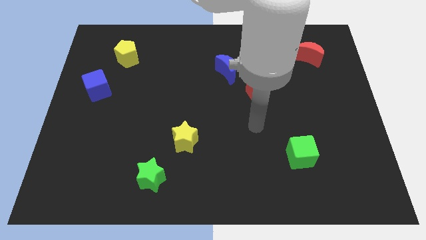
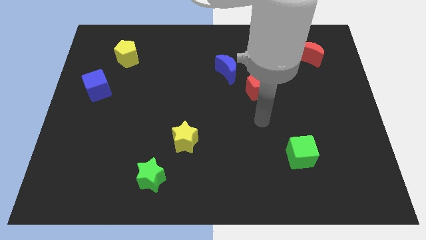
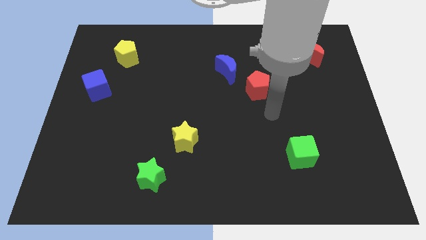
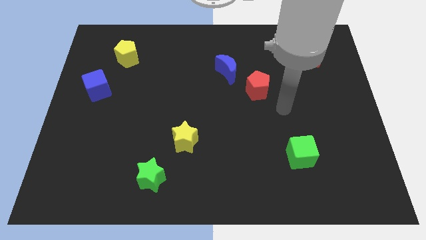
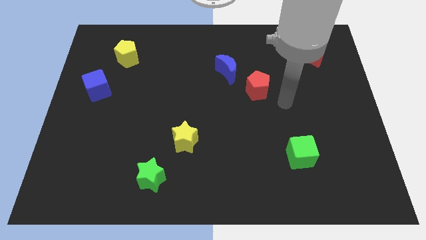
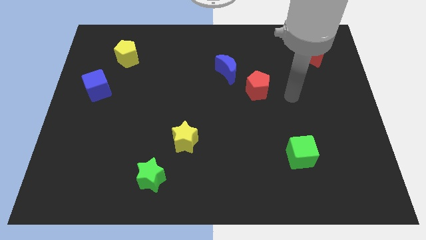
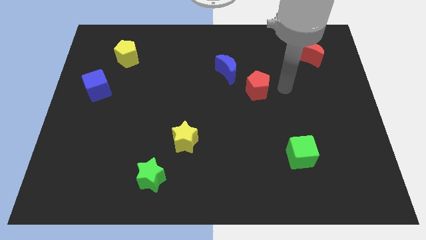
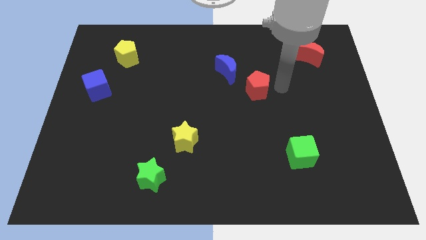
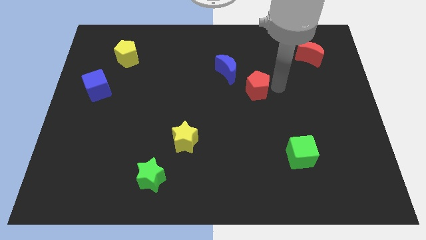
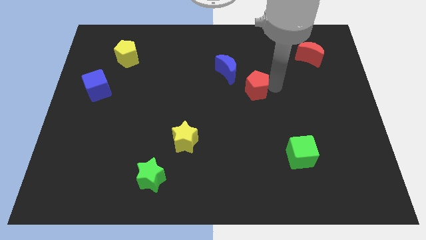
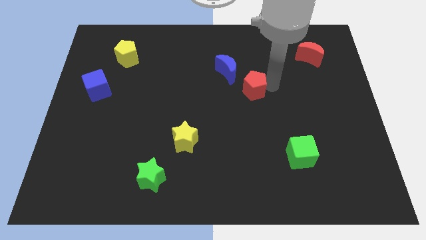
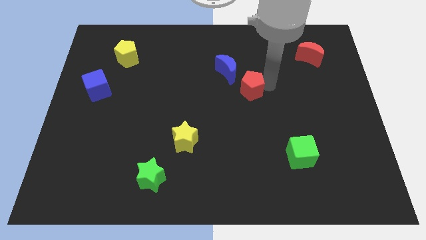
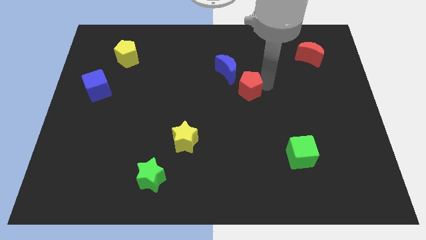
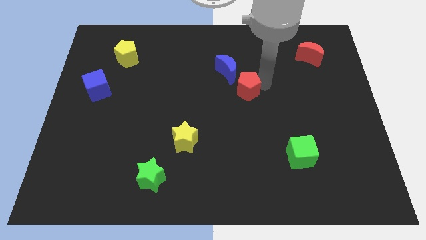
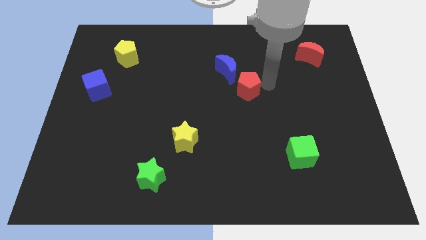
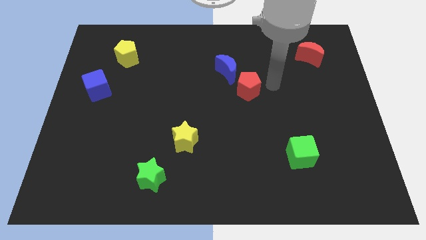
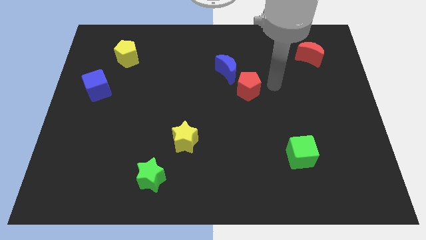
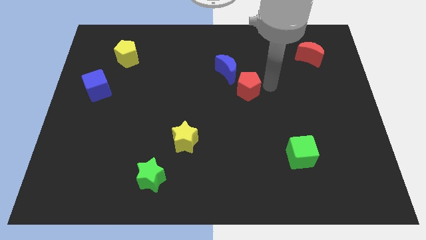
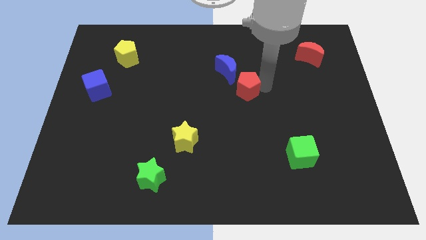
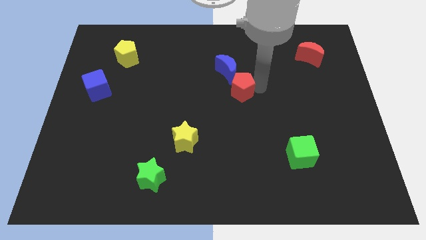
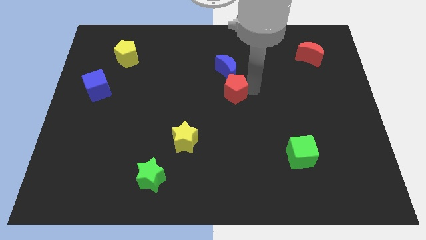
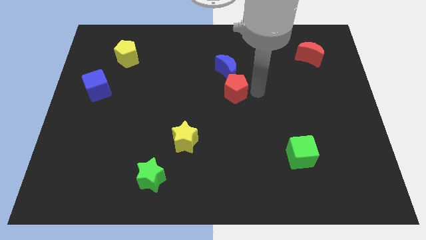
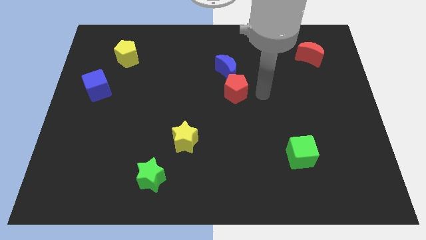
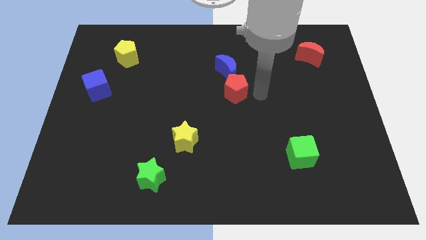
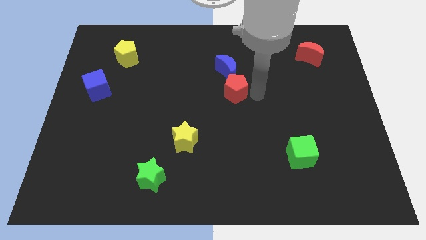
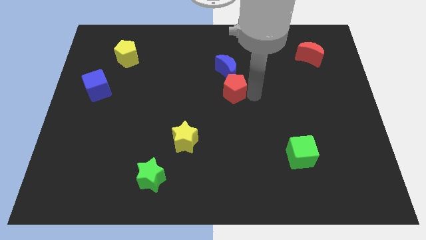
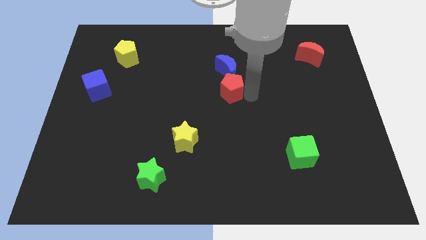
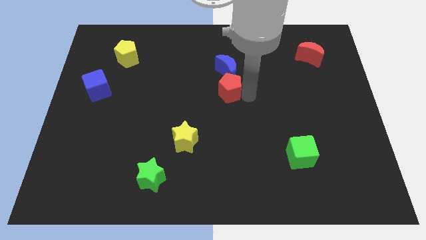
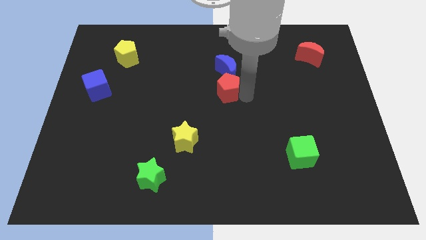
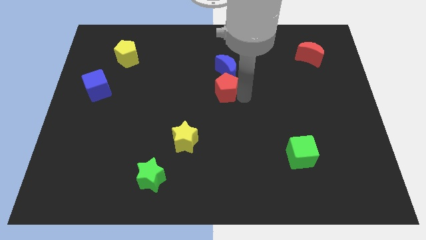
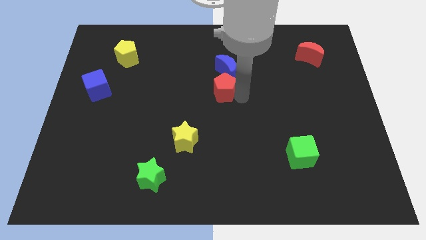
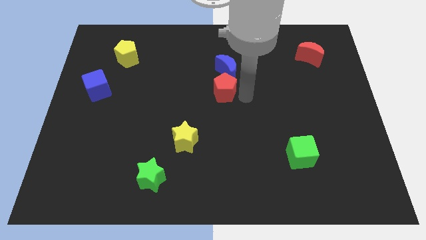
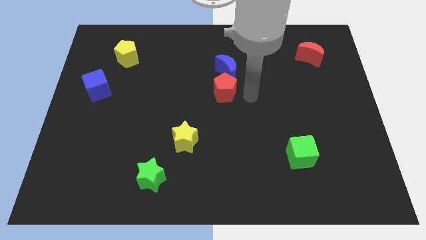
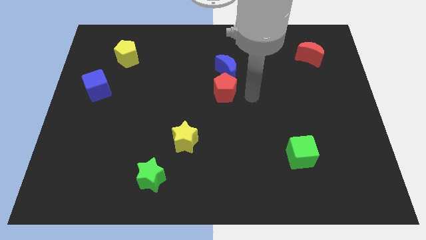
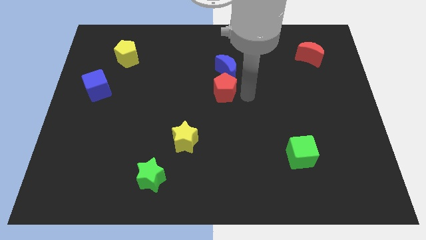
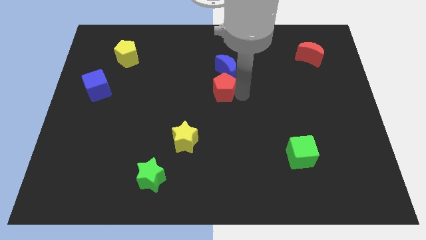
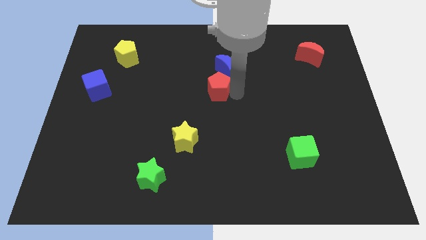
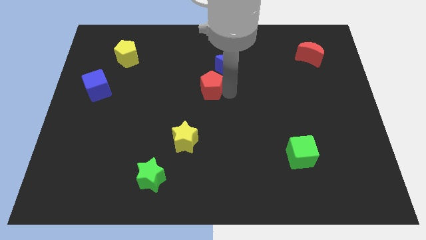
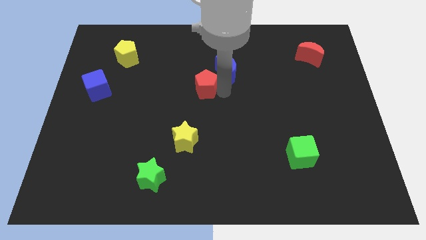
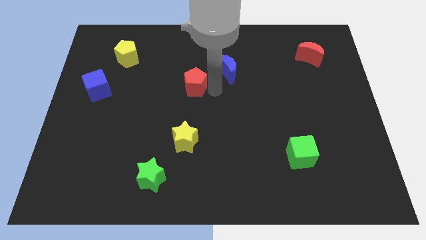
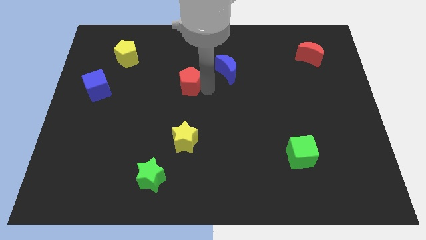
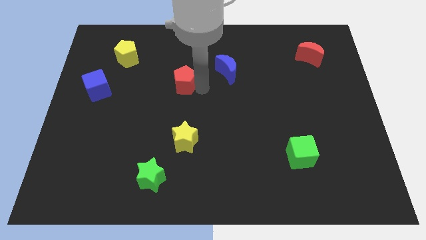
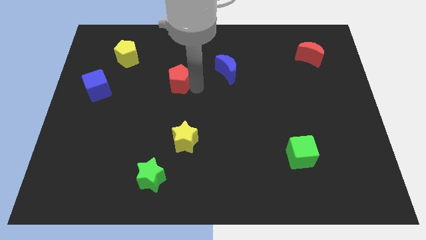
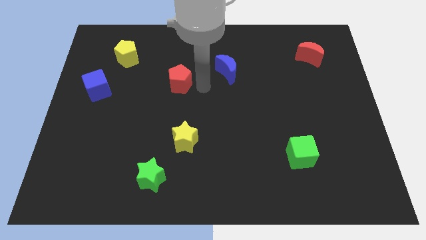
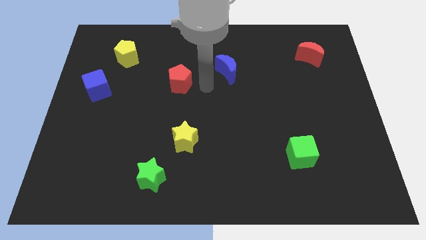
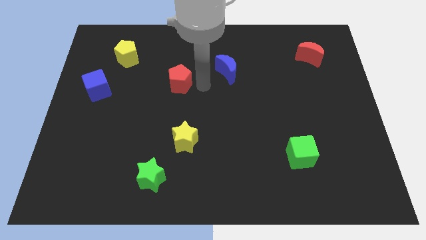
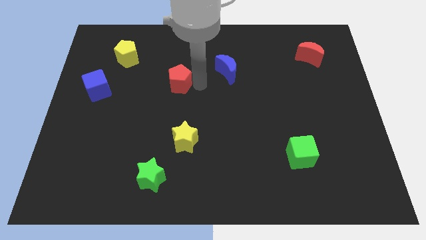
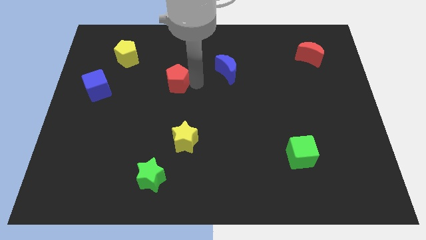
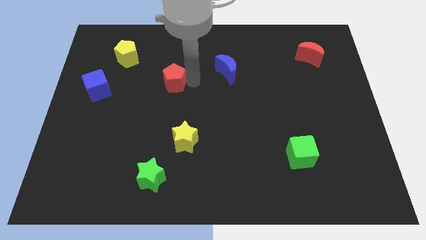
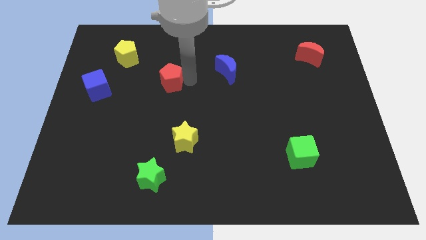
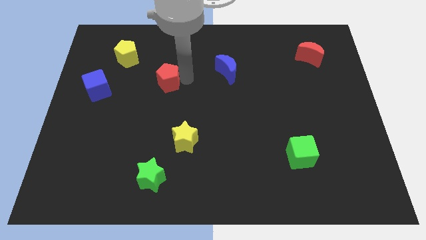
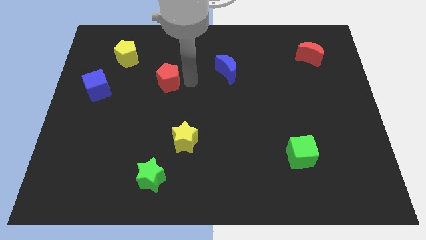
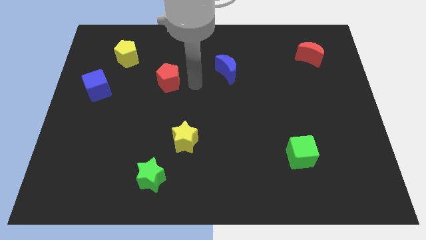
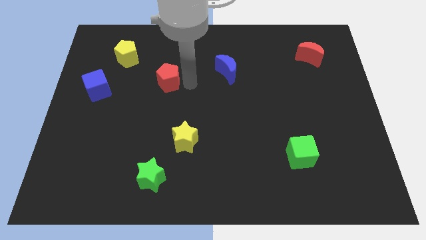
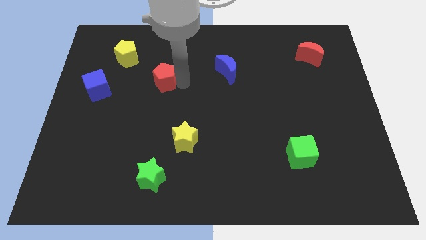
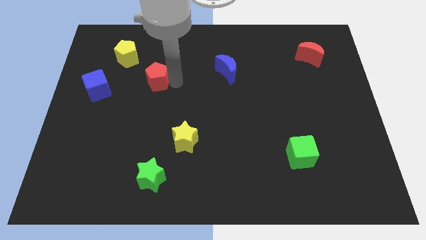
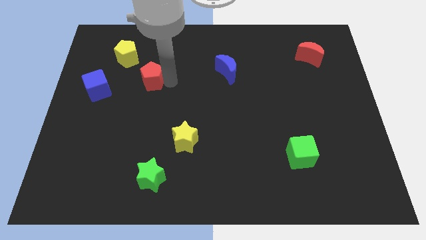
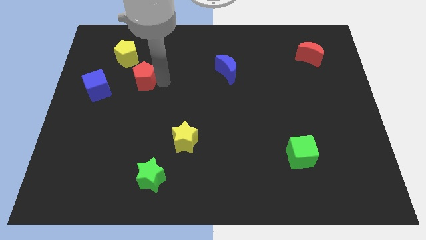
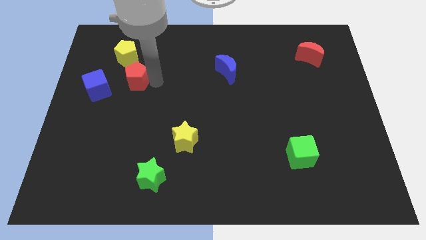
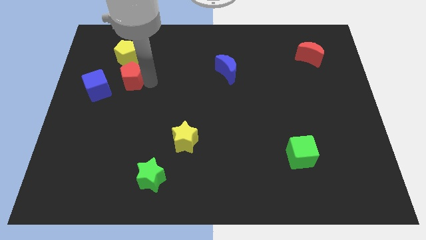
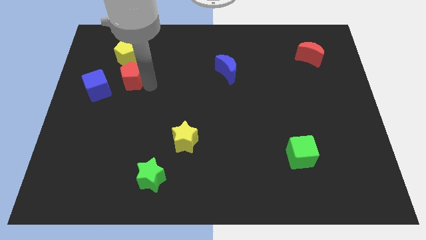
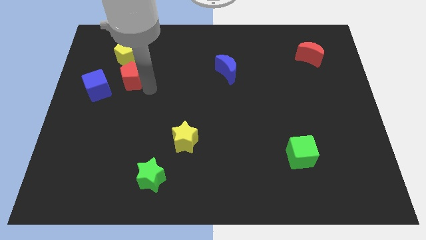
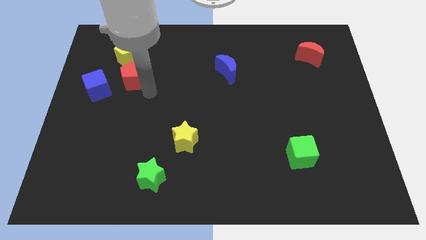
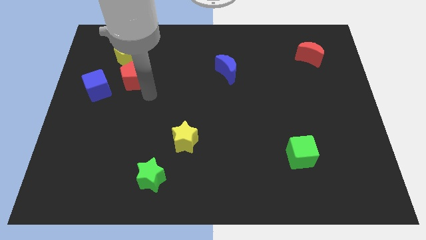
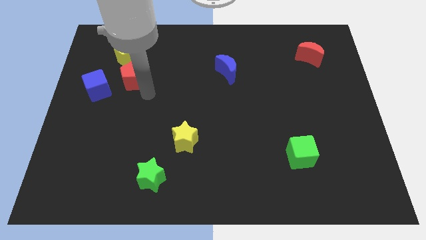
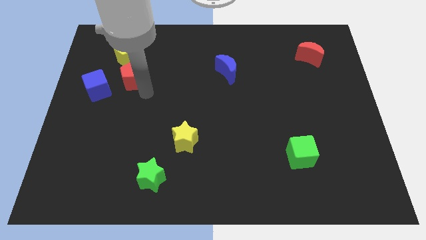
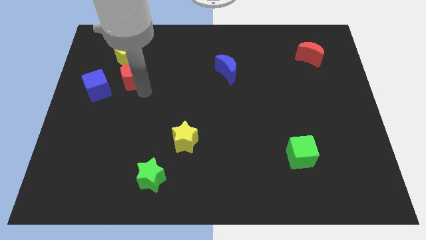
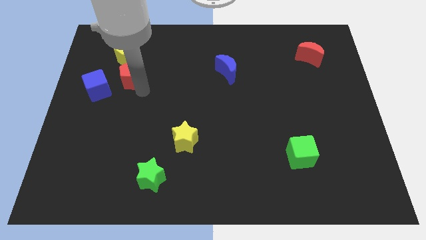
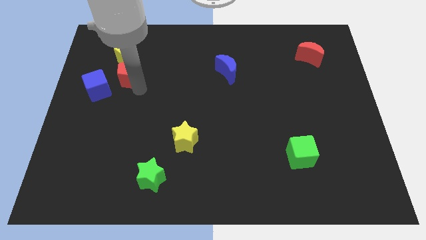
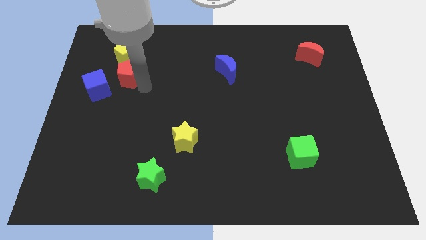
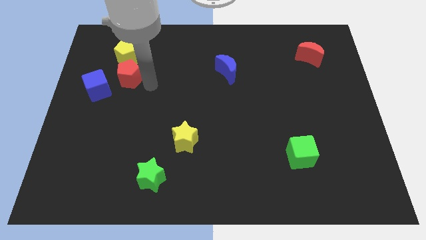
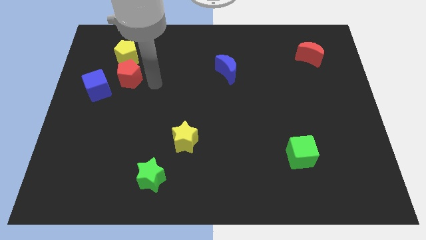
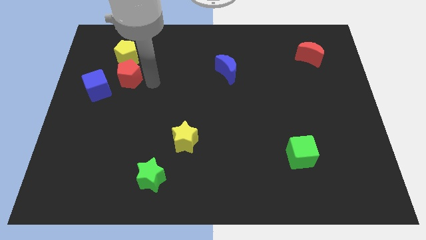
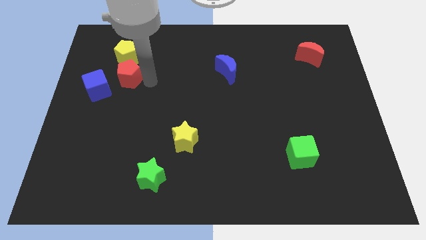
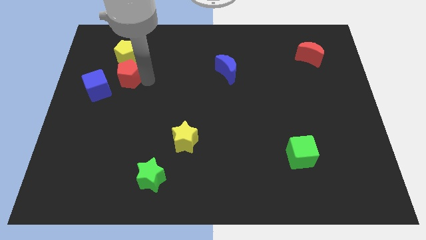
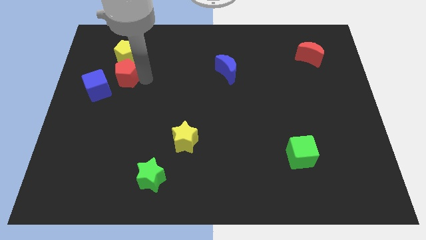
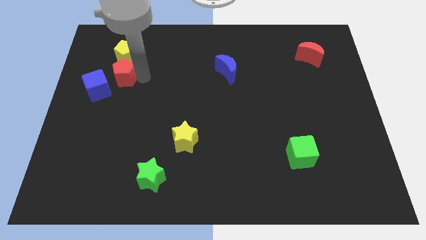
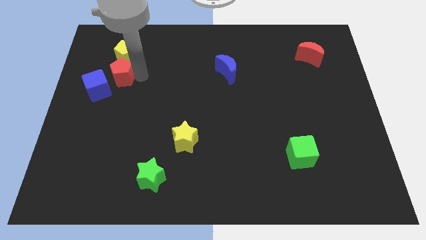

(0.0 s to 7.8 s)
push the red pentagon to the bottom left side of the yellow pentagon
